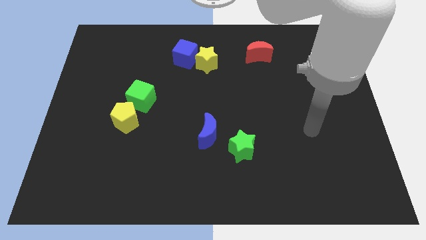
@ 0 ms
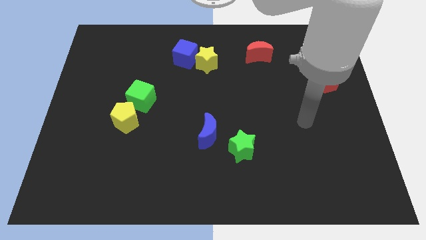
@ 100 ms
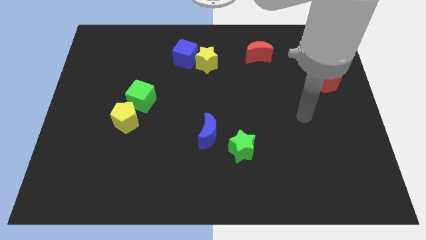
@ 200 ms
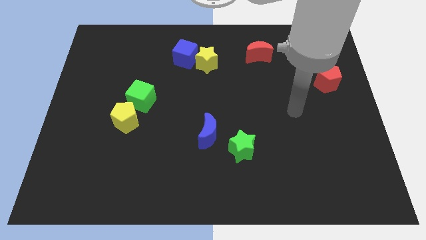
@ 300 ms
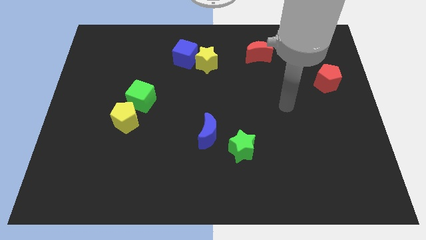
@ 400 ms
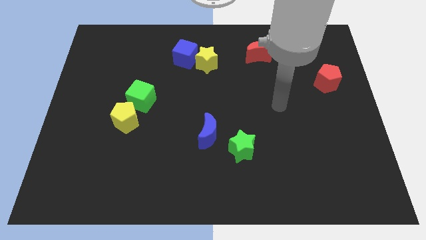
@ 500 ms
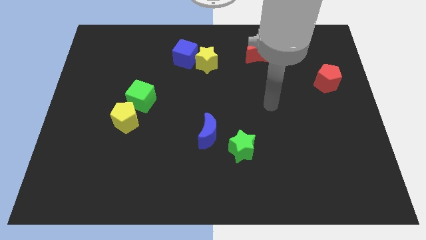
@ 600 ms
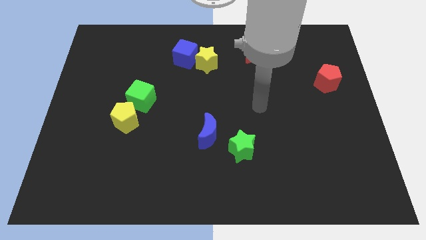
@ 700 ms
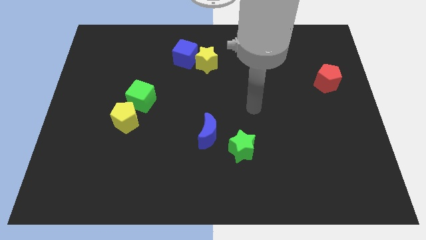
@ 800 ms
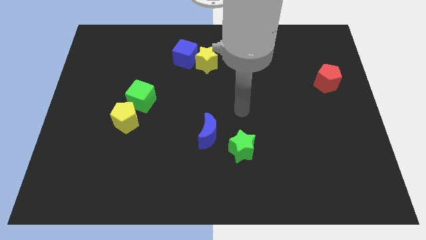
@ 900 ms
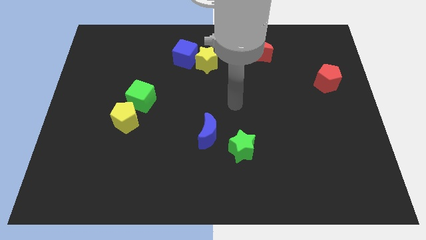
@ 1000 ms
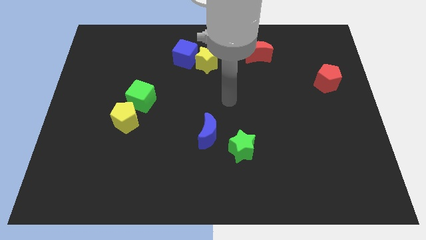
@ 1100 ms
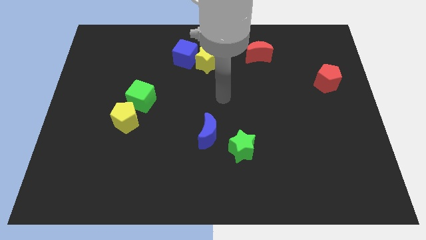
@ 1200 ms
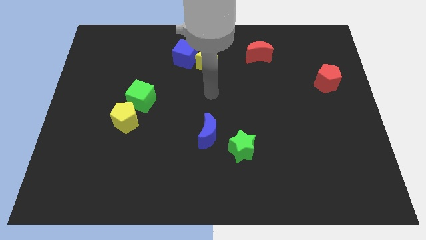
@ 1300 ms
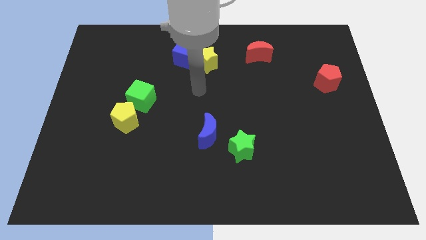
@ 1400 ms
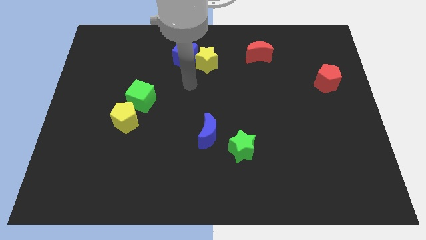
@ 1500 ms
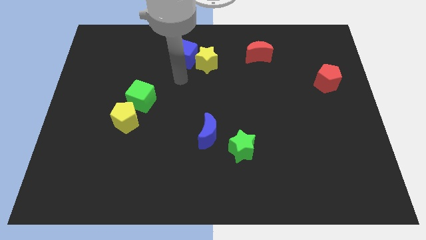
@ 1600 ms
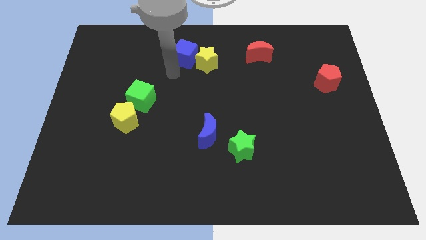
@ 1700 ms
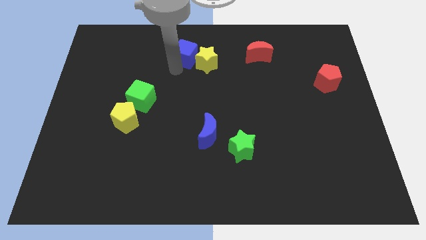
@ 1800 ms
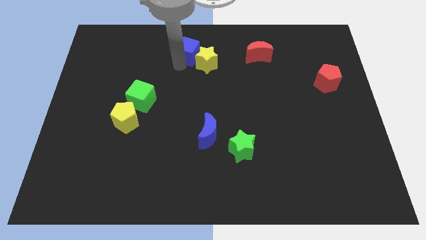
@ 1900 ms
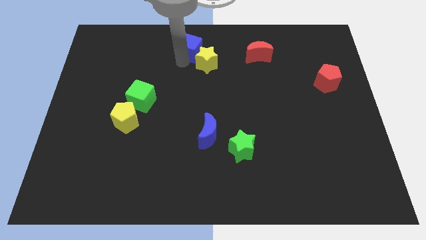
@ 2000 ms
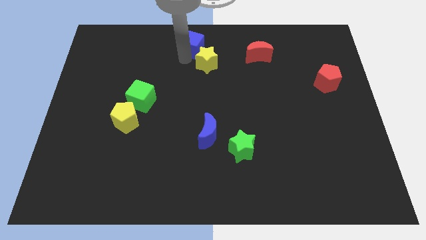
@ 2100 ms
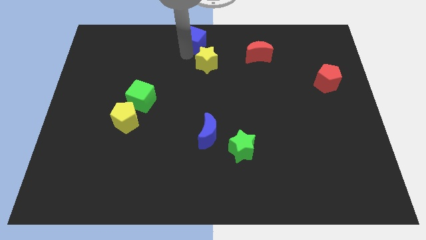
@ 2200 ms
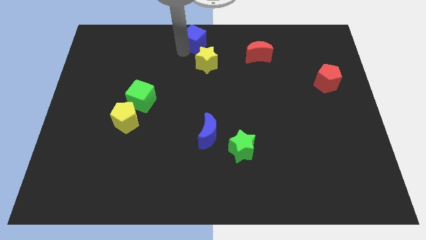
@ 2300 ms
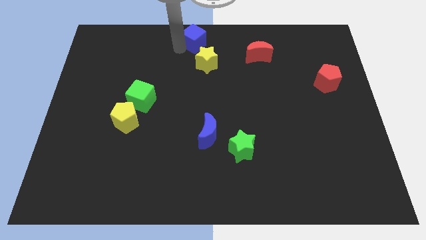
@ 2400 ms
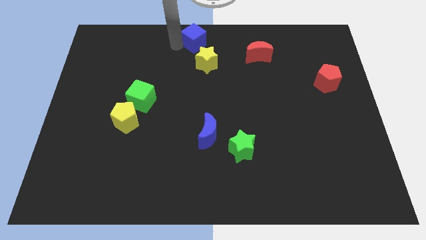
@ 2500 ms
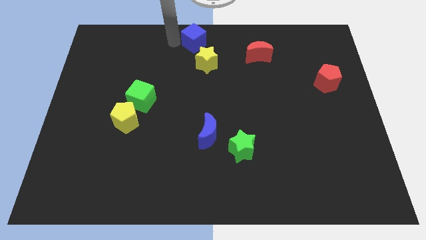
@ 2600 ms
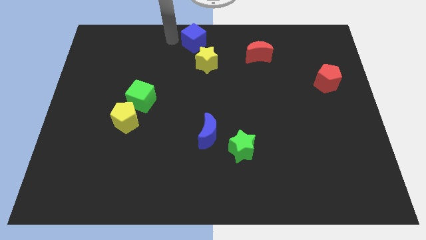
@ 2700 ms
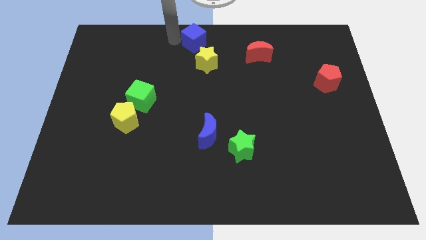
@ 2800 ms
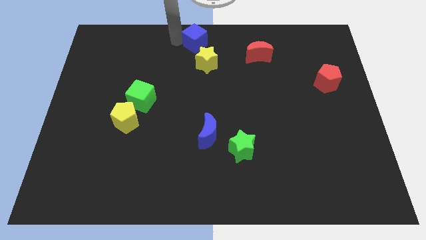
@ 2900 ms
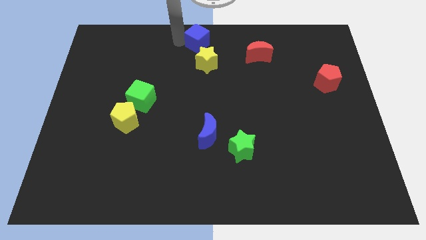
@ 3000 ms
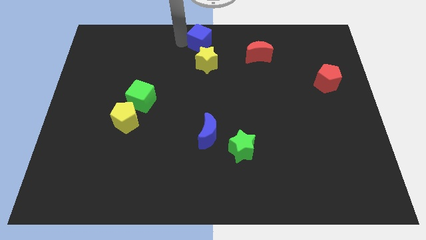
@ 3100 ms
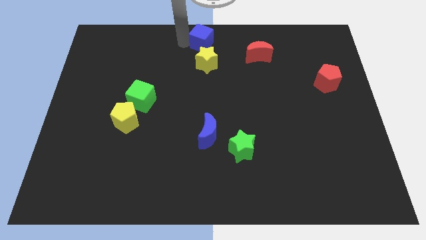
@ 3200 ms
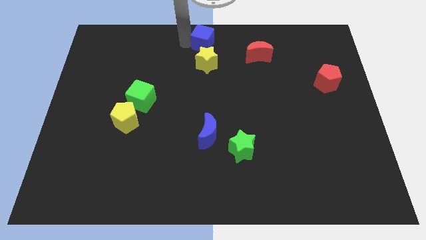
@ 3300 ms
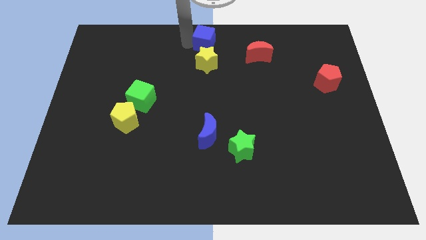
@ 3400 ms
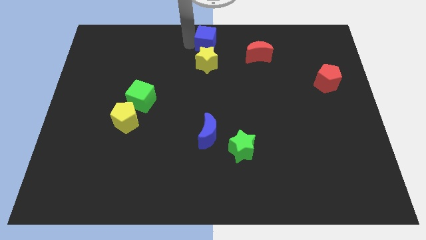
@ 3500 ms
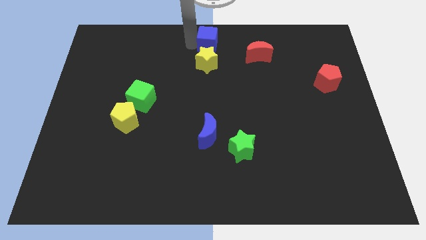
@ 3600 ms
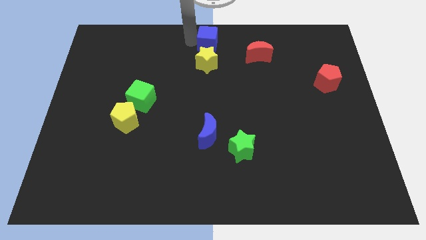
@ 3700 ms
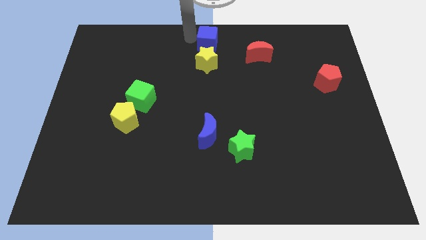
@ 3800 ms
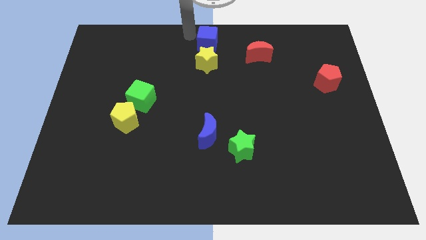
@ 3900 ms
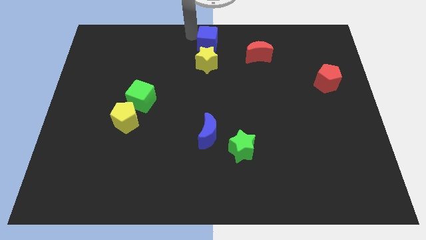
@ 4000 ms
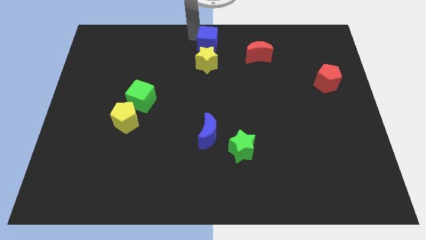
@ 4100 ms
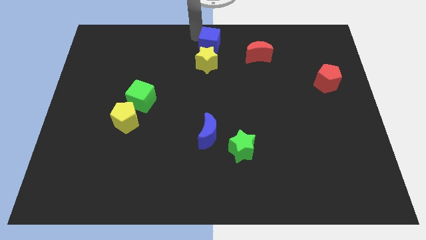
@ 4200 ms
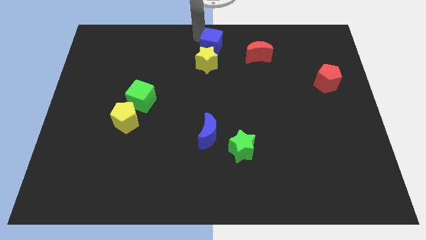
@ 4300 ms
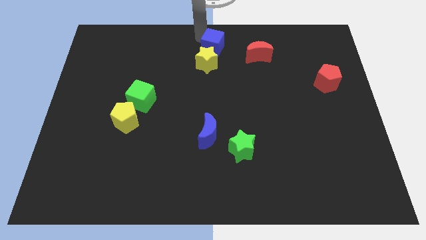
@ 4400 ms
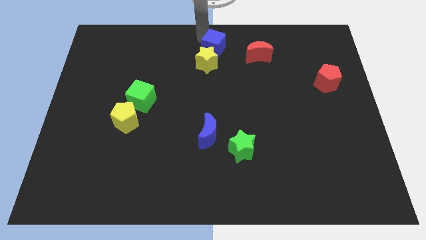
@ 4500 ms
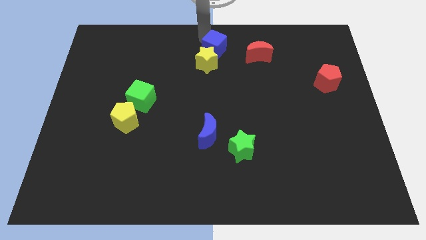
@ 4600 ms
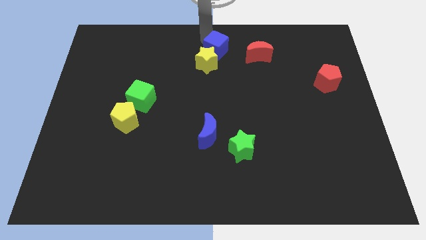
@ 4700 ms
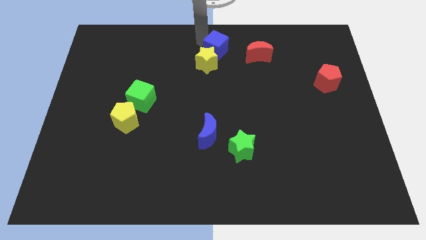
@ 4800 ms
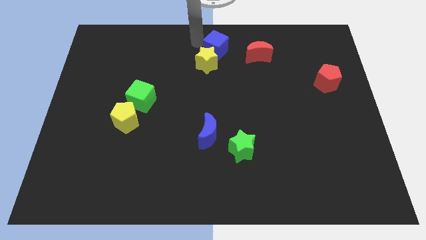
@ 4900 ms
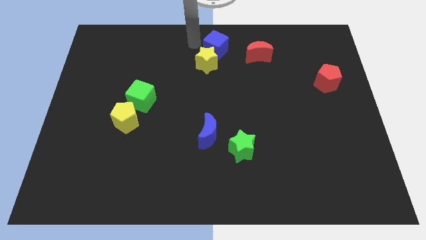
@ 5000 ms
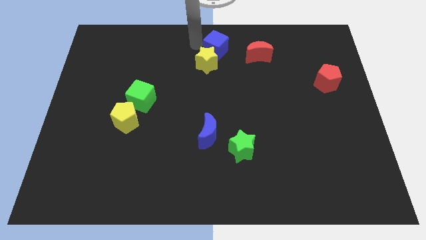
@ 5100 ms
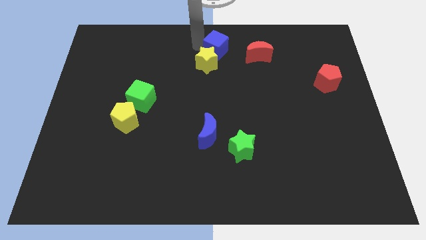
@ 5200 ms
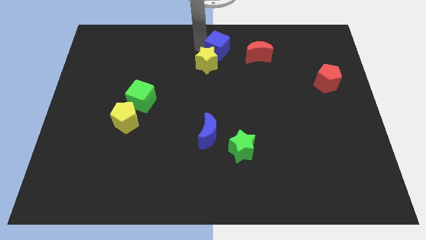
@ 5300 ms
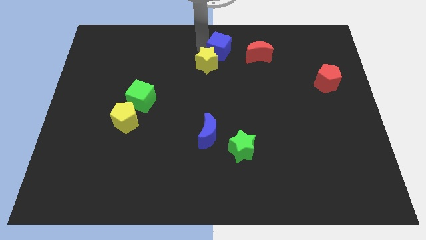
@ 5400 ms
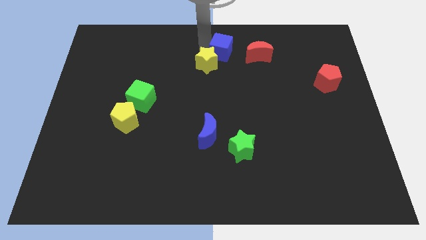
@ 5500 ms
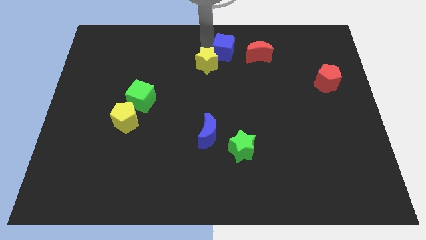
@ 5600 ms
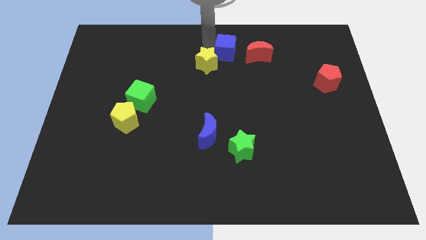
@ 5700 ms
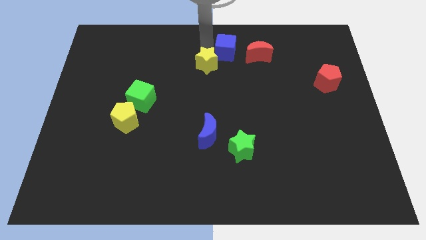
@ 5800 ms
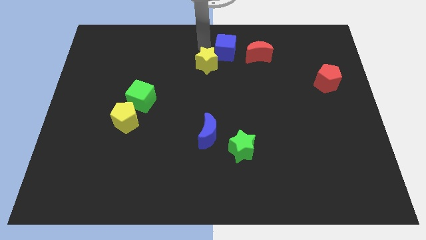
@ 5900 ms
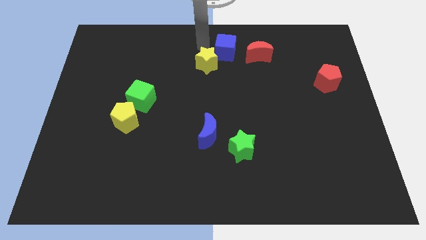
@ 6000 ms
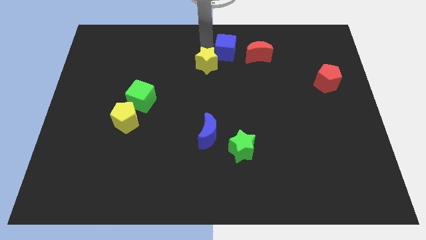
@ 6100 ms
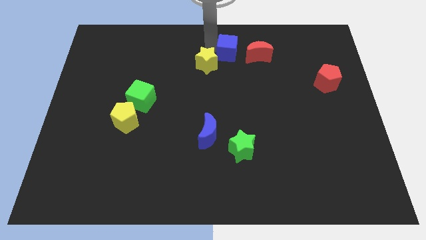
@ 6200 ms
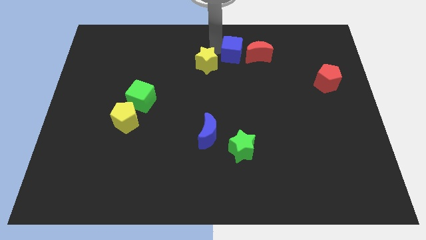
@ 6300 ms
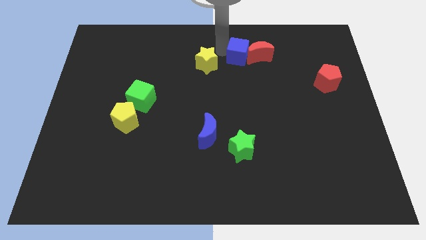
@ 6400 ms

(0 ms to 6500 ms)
move the blue cube next to the red moon

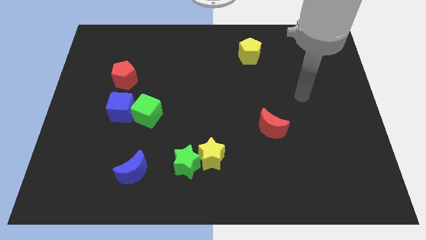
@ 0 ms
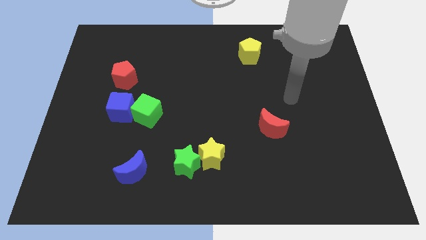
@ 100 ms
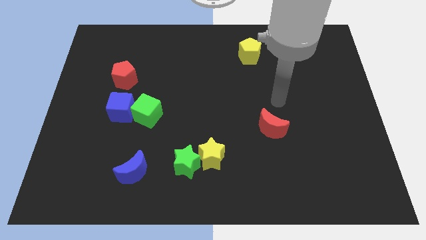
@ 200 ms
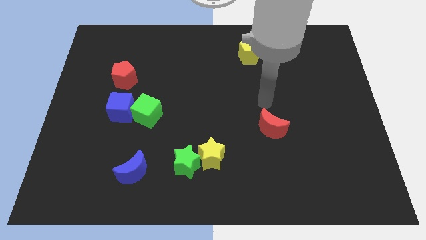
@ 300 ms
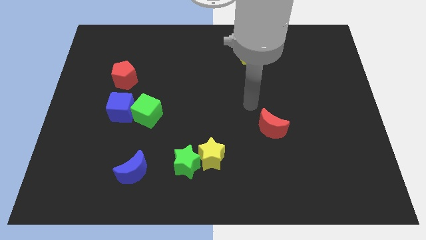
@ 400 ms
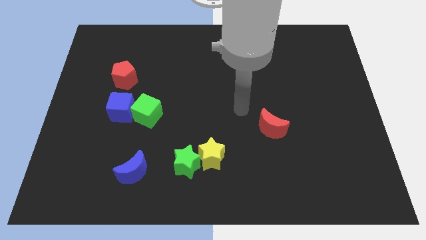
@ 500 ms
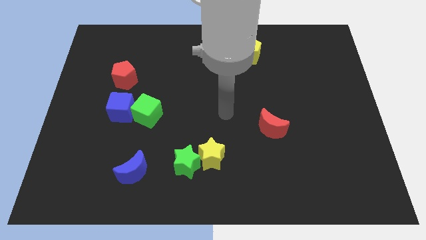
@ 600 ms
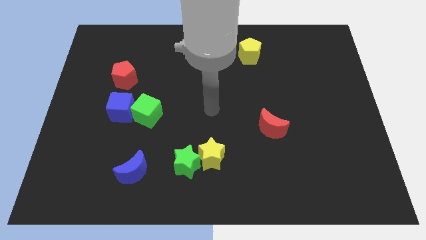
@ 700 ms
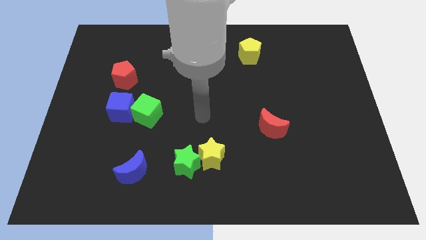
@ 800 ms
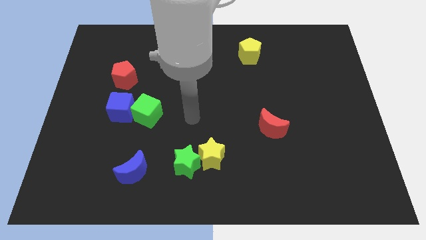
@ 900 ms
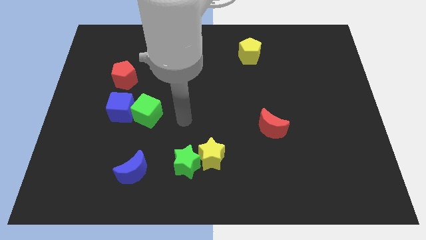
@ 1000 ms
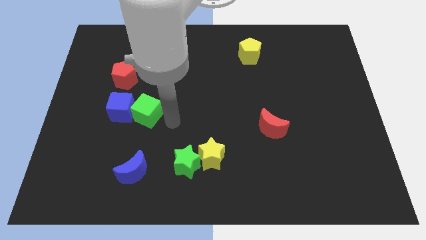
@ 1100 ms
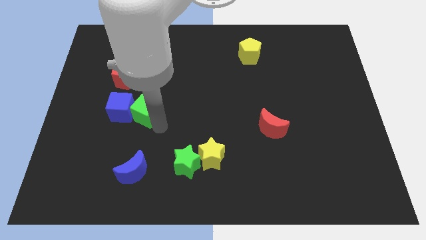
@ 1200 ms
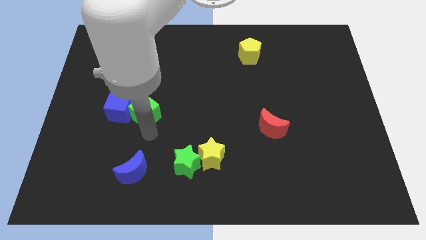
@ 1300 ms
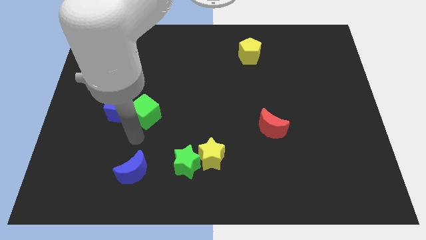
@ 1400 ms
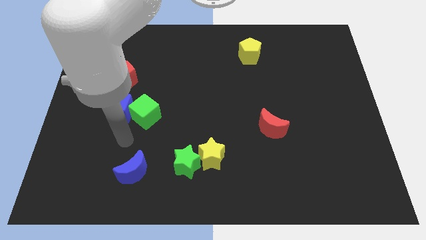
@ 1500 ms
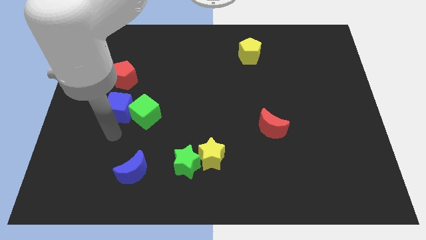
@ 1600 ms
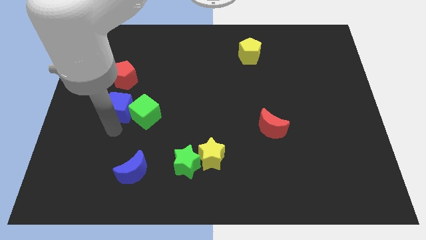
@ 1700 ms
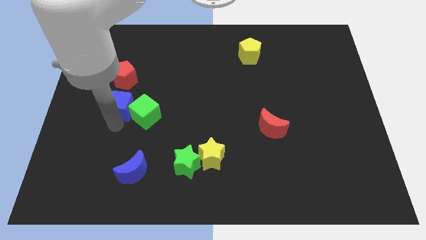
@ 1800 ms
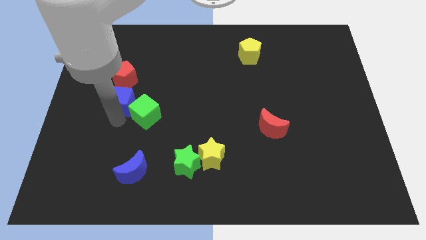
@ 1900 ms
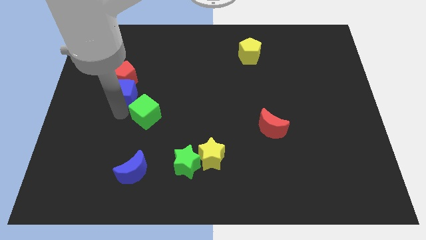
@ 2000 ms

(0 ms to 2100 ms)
push the blue cube to the red pentagon
